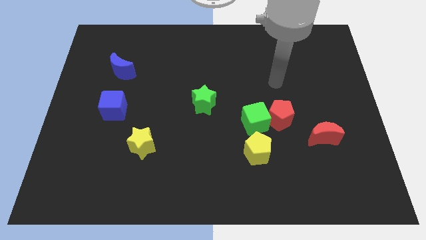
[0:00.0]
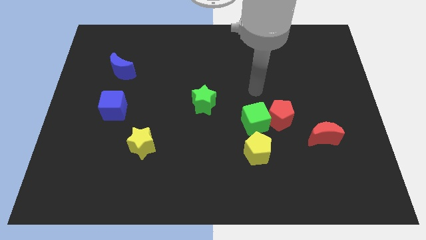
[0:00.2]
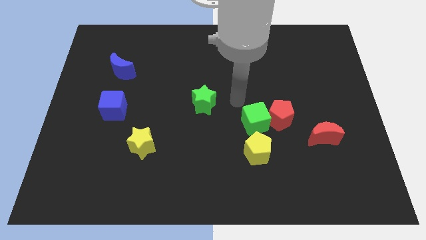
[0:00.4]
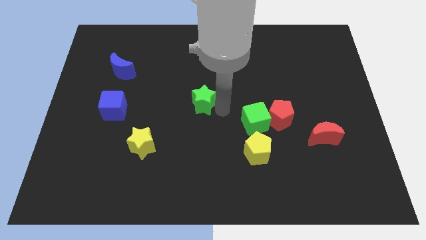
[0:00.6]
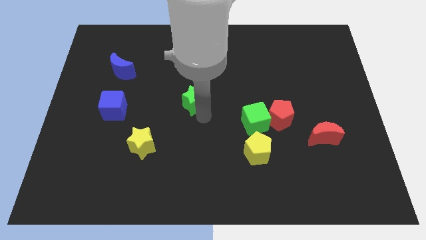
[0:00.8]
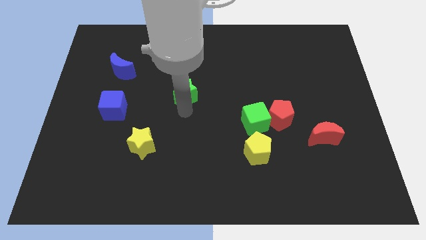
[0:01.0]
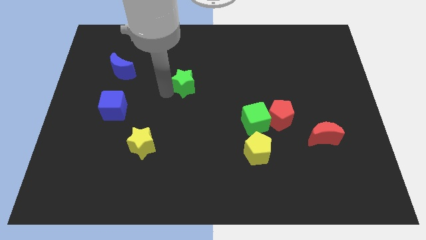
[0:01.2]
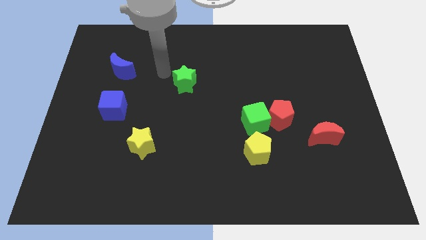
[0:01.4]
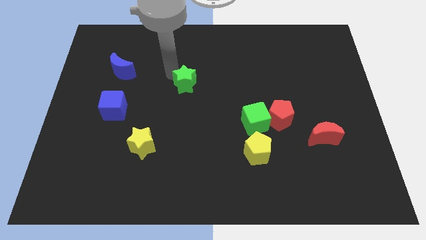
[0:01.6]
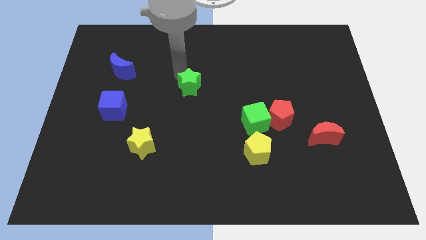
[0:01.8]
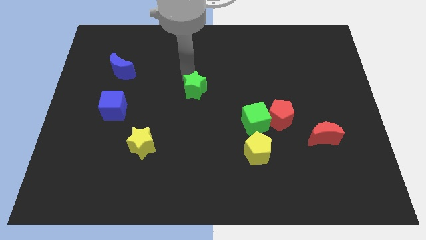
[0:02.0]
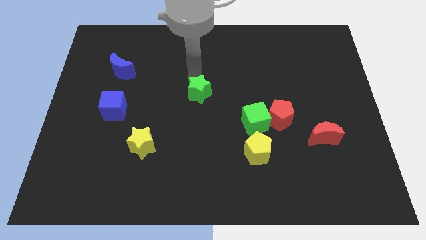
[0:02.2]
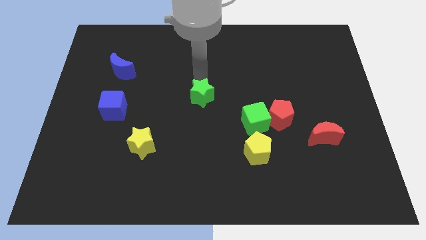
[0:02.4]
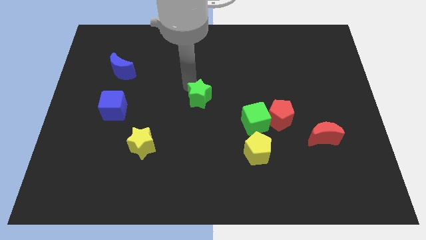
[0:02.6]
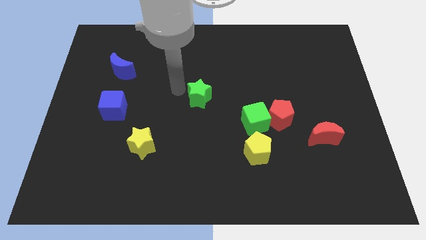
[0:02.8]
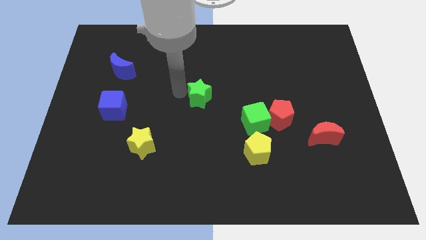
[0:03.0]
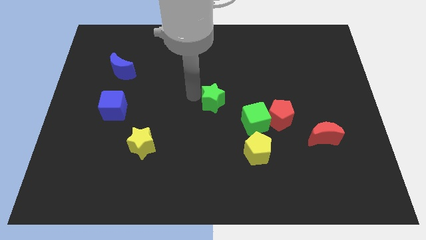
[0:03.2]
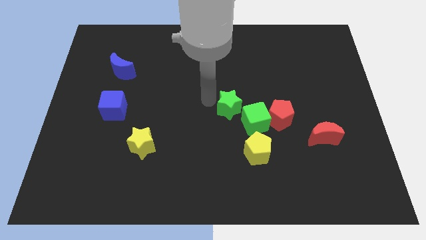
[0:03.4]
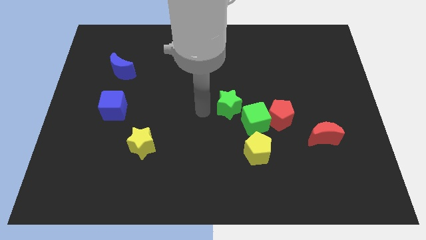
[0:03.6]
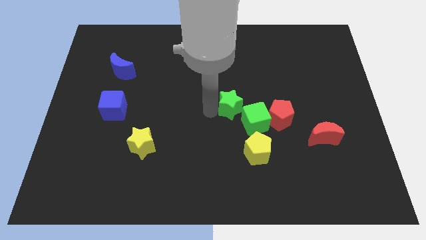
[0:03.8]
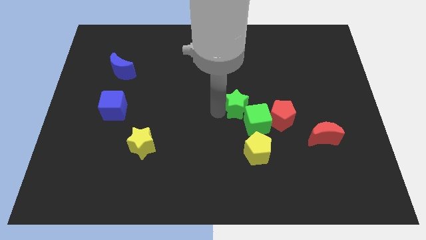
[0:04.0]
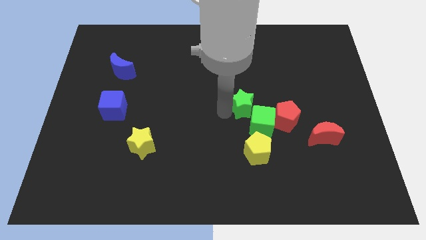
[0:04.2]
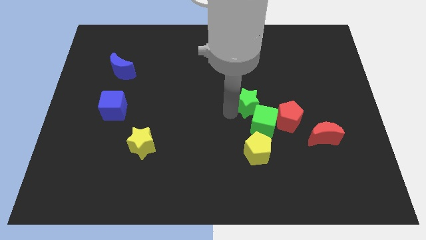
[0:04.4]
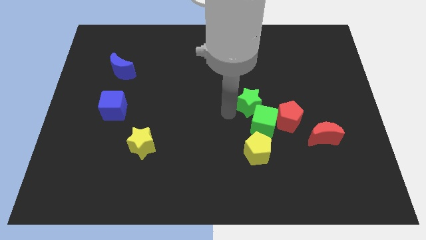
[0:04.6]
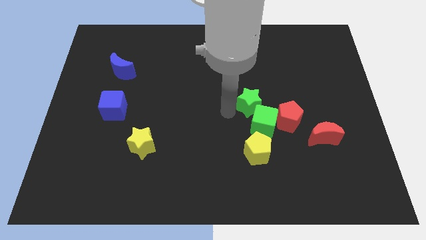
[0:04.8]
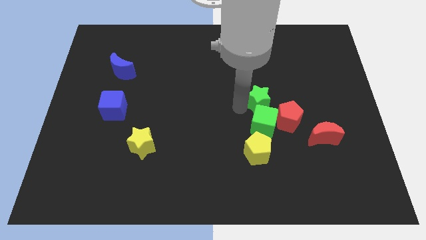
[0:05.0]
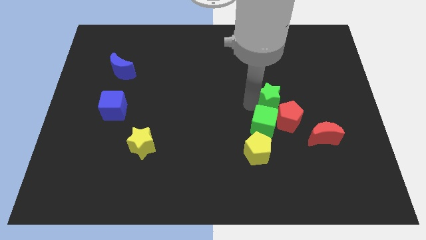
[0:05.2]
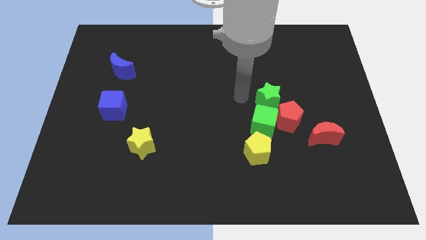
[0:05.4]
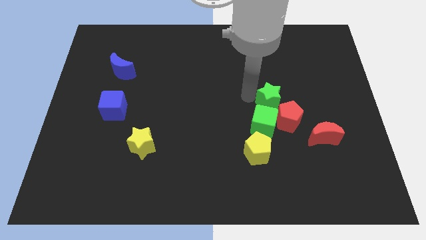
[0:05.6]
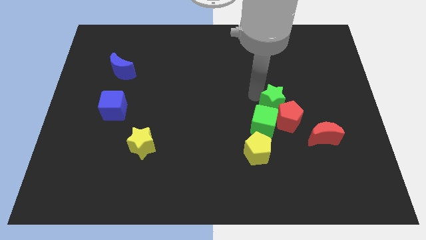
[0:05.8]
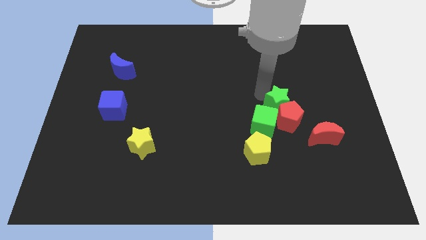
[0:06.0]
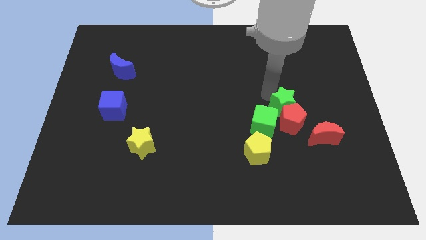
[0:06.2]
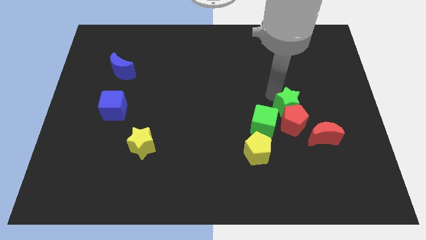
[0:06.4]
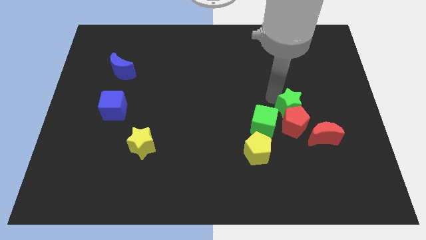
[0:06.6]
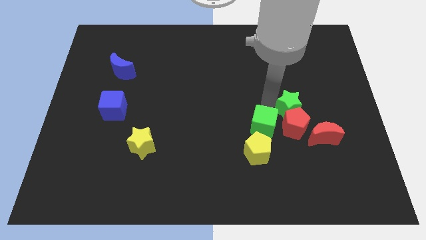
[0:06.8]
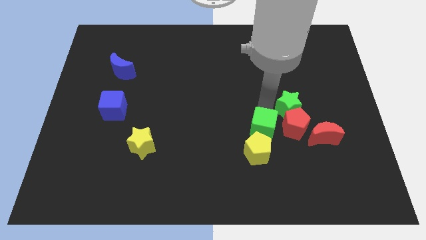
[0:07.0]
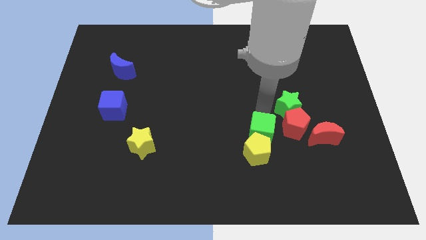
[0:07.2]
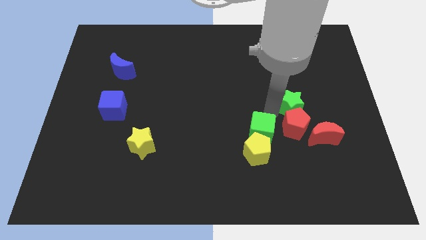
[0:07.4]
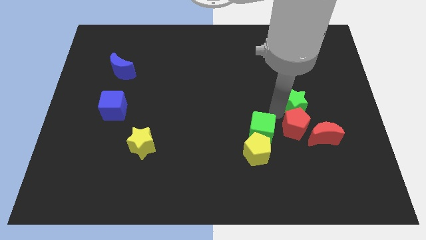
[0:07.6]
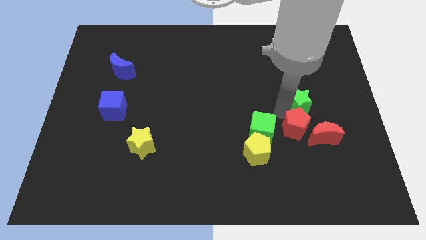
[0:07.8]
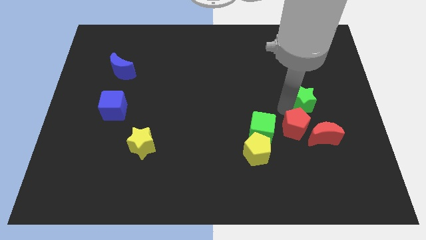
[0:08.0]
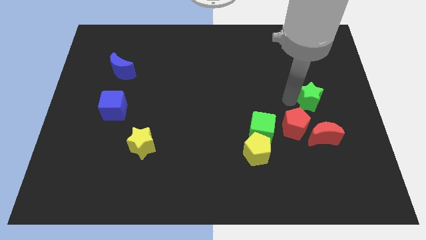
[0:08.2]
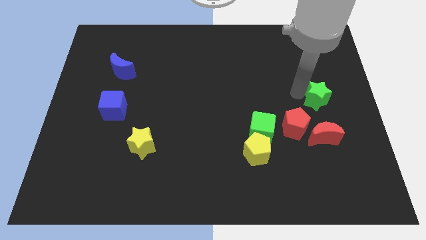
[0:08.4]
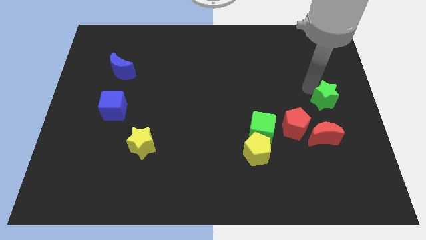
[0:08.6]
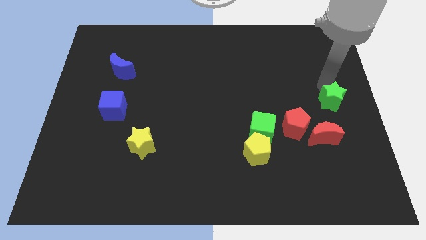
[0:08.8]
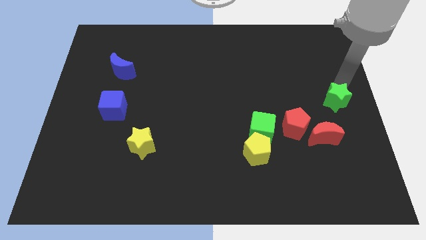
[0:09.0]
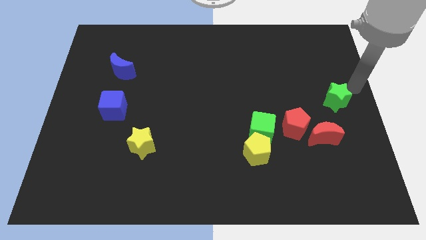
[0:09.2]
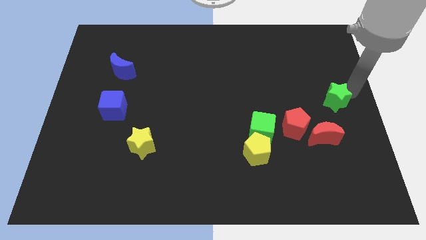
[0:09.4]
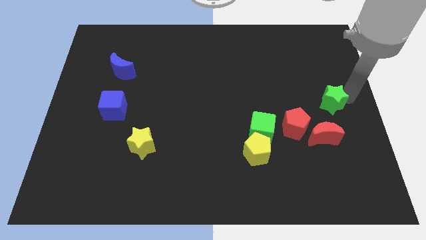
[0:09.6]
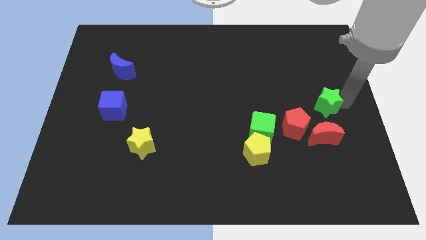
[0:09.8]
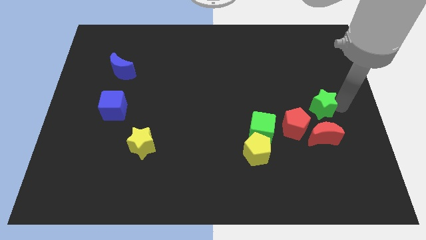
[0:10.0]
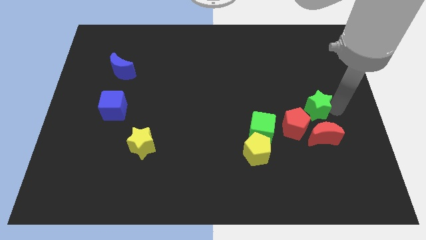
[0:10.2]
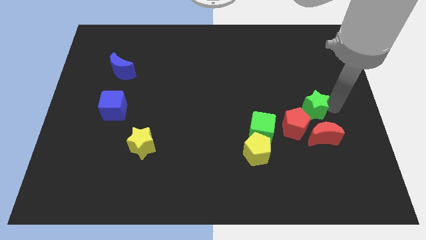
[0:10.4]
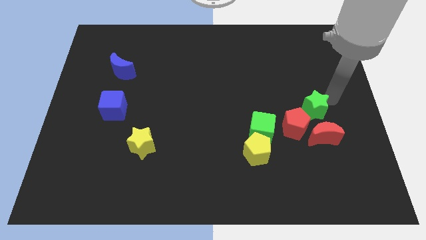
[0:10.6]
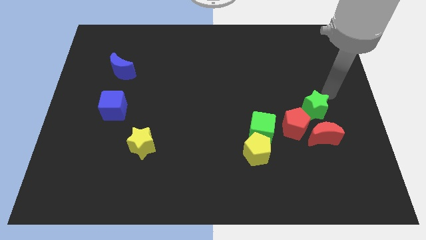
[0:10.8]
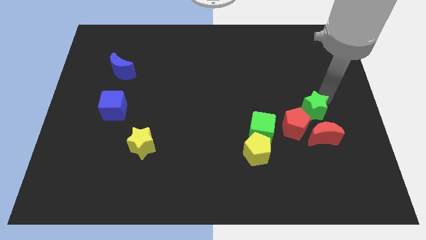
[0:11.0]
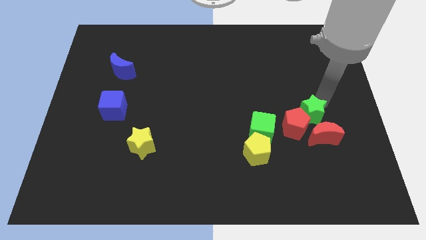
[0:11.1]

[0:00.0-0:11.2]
put the green star towards the red moon

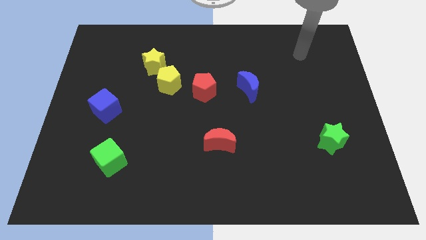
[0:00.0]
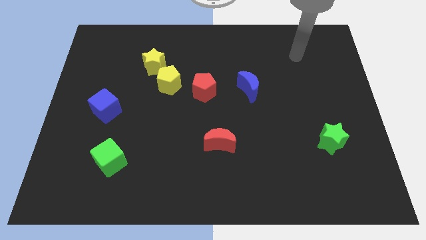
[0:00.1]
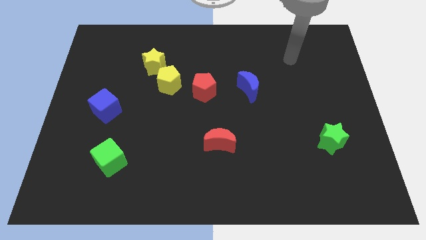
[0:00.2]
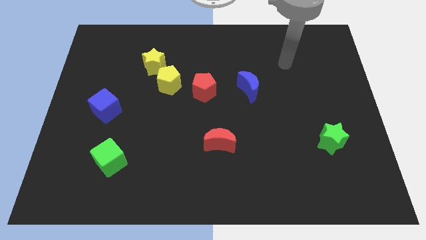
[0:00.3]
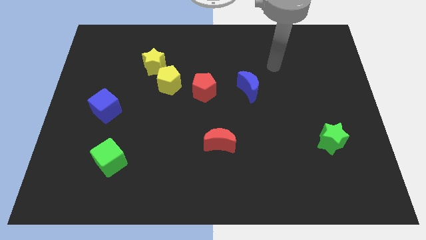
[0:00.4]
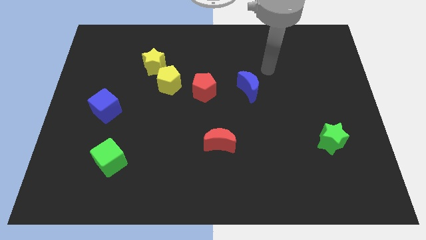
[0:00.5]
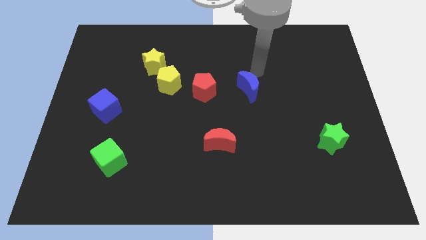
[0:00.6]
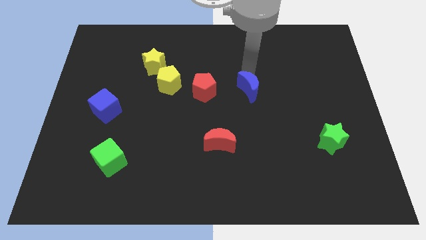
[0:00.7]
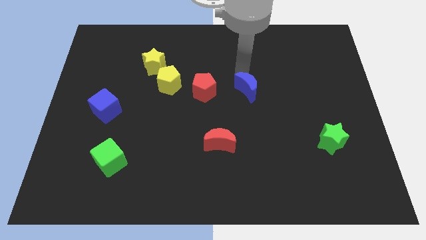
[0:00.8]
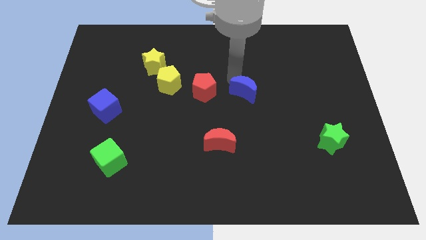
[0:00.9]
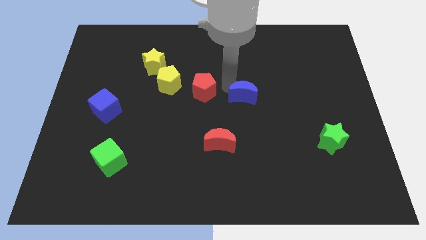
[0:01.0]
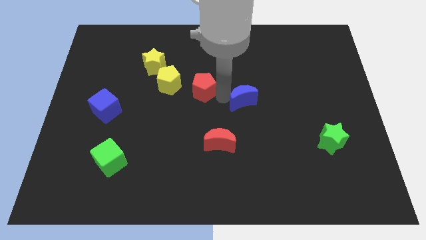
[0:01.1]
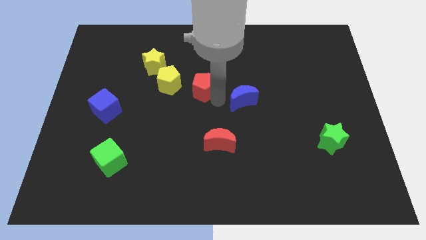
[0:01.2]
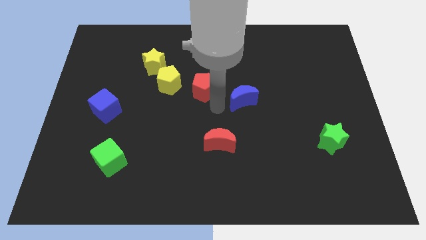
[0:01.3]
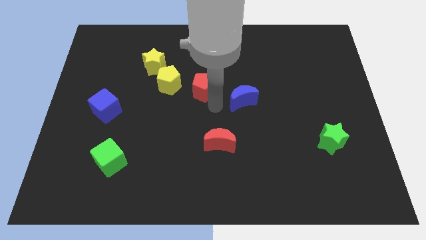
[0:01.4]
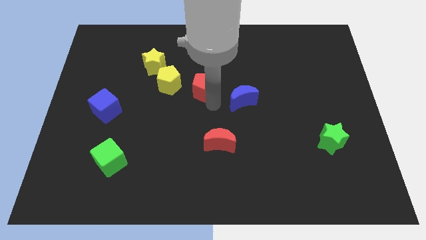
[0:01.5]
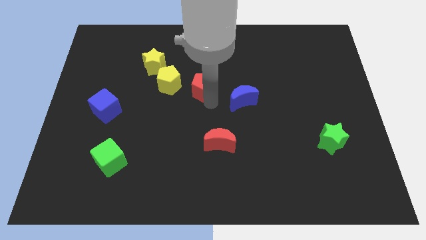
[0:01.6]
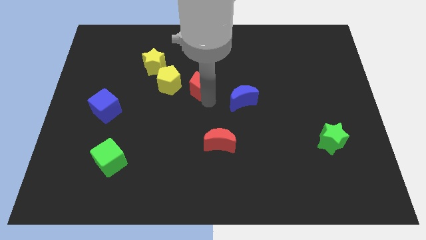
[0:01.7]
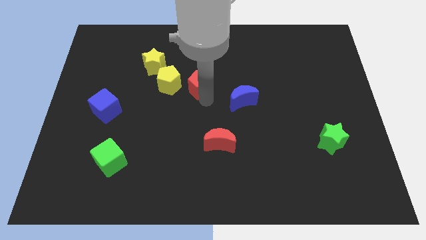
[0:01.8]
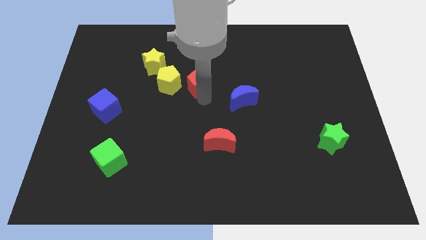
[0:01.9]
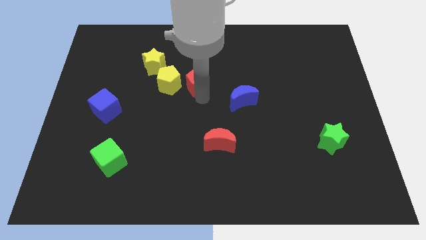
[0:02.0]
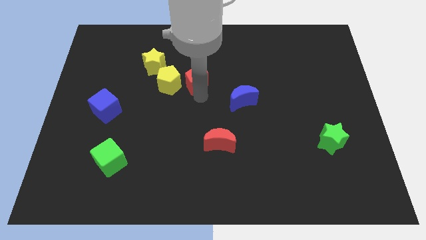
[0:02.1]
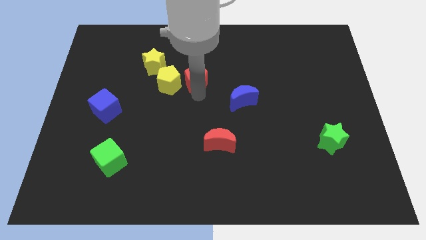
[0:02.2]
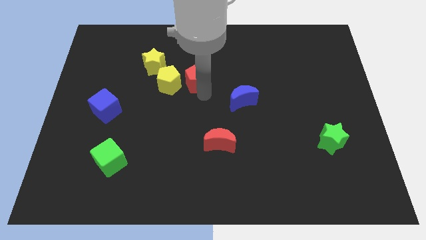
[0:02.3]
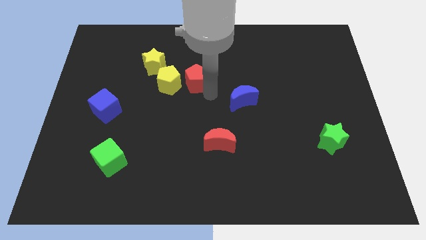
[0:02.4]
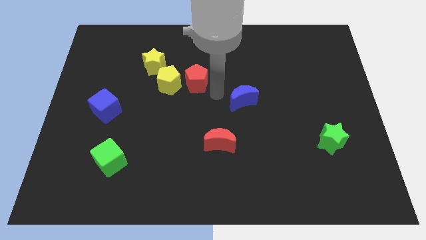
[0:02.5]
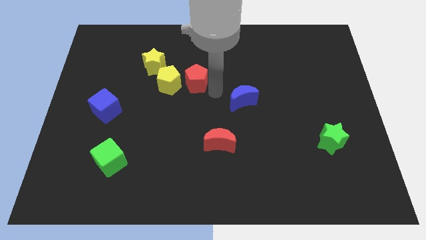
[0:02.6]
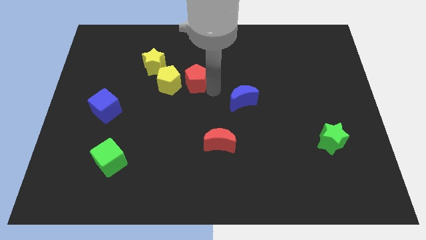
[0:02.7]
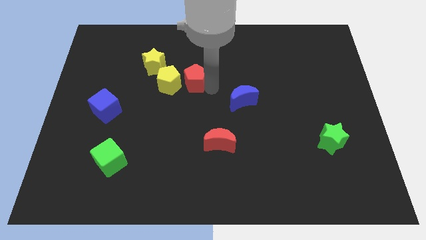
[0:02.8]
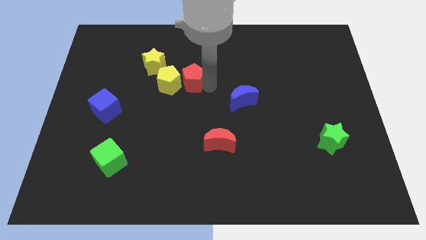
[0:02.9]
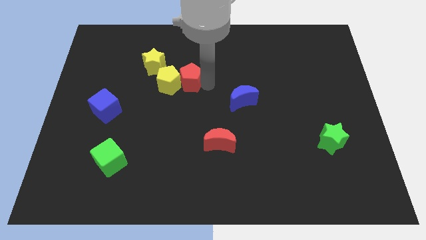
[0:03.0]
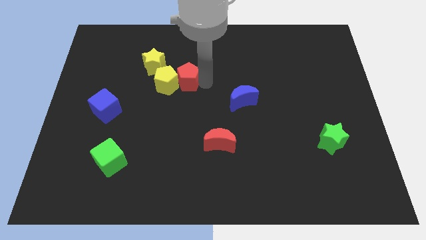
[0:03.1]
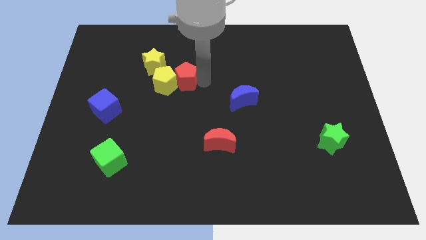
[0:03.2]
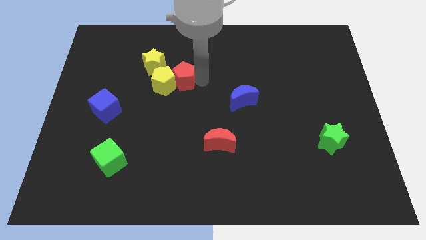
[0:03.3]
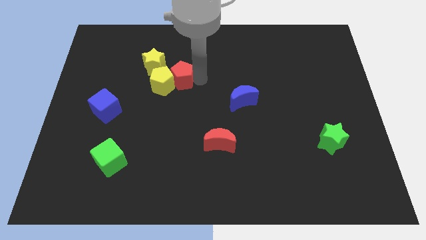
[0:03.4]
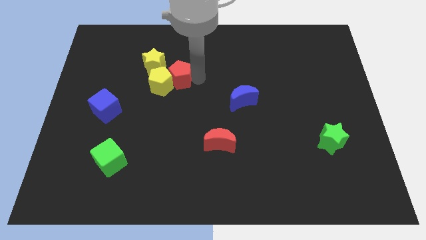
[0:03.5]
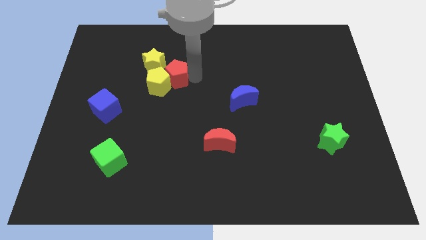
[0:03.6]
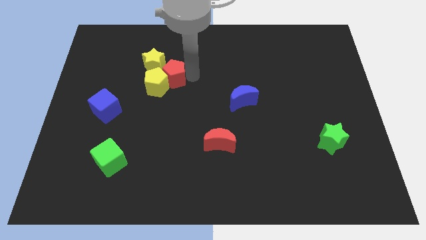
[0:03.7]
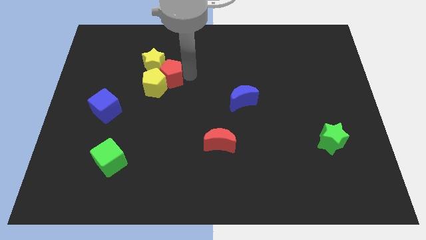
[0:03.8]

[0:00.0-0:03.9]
slide the red pentagon close to the yellow star
